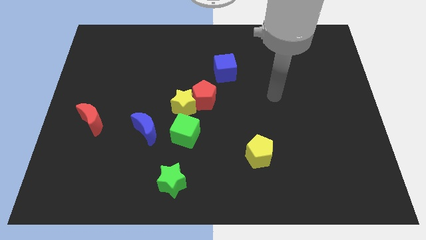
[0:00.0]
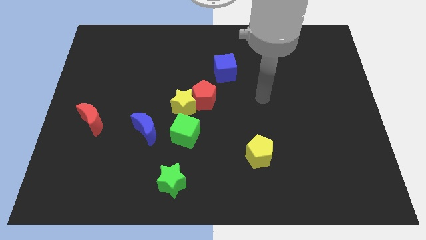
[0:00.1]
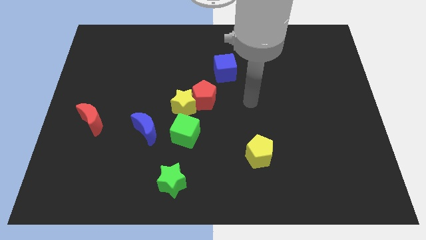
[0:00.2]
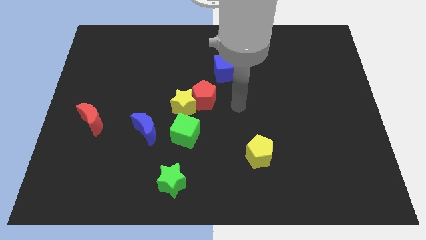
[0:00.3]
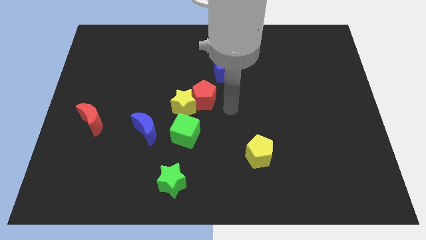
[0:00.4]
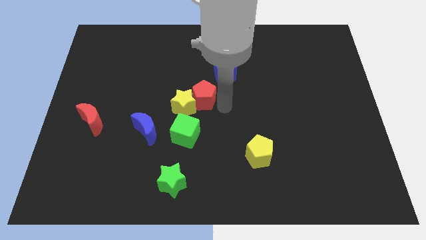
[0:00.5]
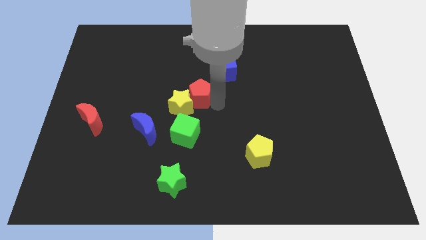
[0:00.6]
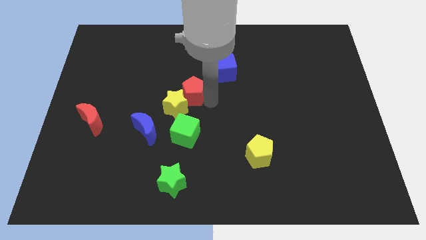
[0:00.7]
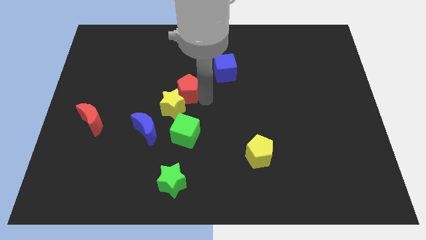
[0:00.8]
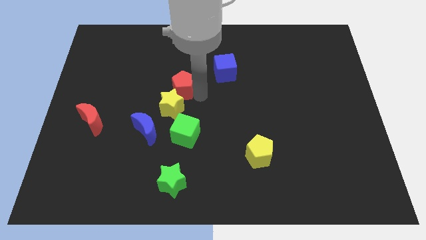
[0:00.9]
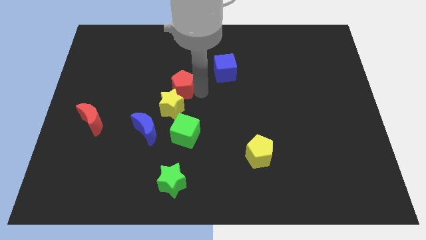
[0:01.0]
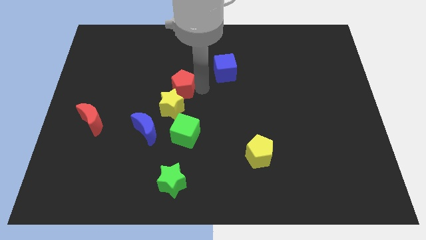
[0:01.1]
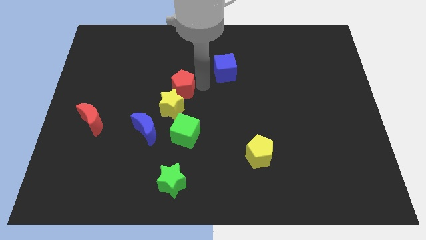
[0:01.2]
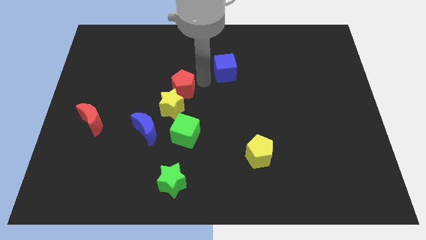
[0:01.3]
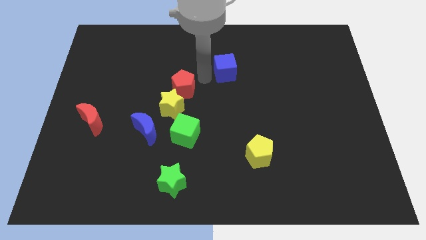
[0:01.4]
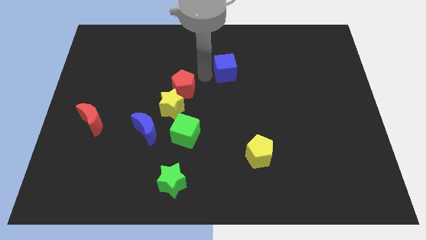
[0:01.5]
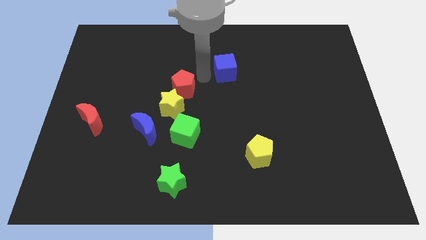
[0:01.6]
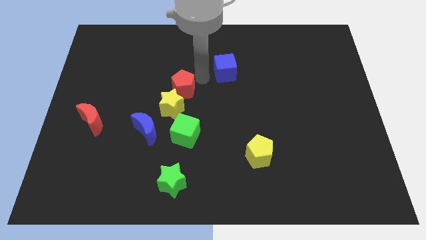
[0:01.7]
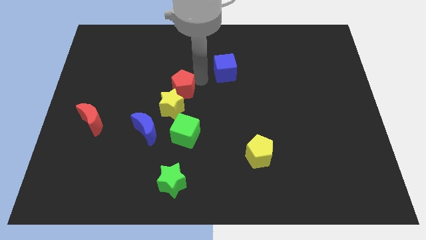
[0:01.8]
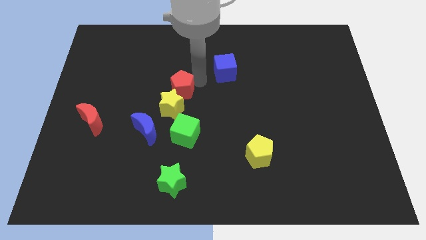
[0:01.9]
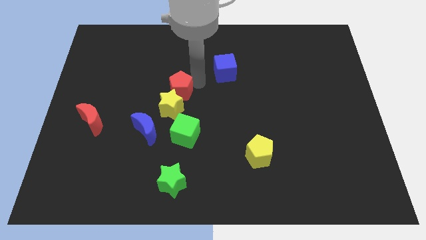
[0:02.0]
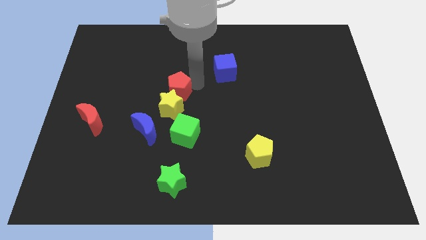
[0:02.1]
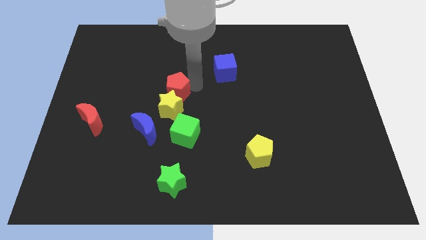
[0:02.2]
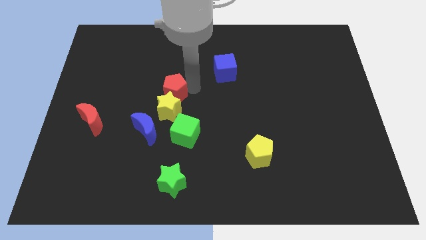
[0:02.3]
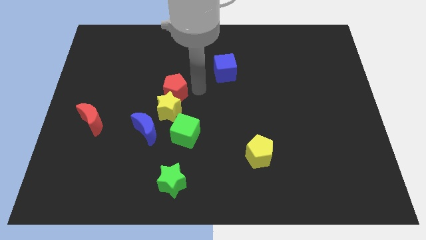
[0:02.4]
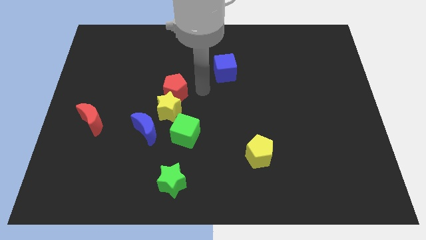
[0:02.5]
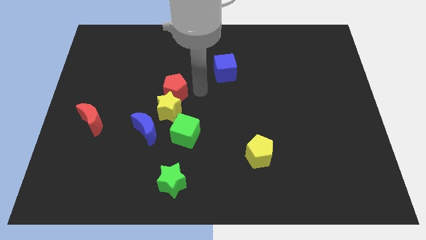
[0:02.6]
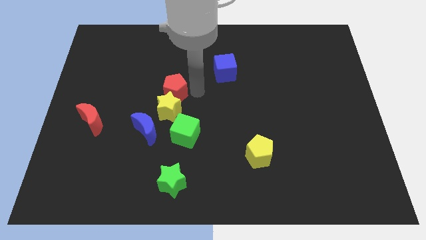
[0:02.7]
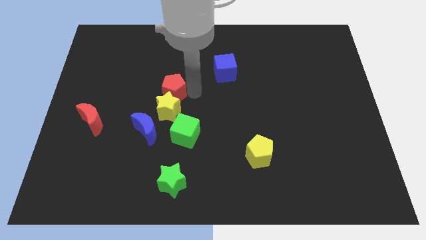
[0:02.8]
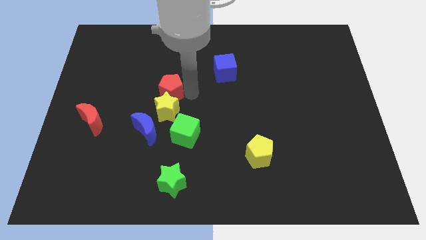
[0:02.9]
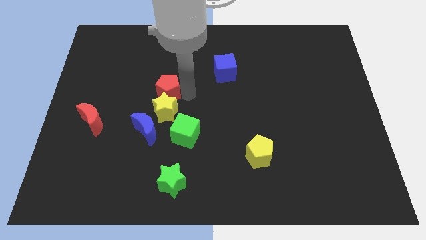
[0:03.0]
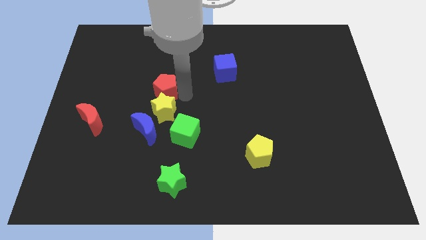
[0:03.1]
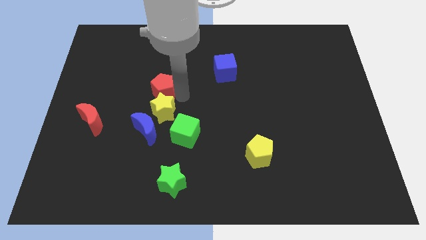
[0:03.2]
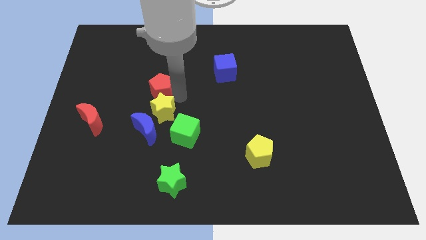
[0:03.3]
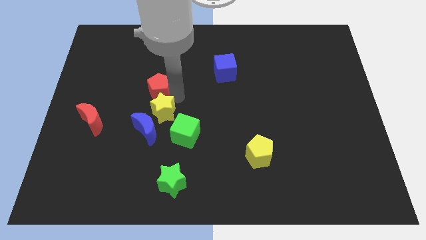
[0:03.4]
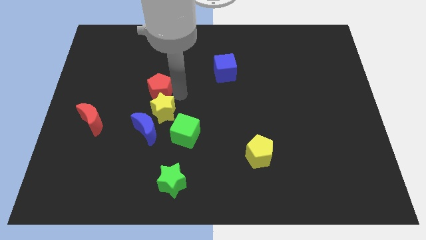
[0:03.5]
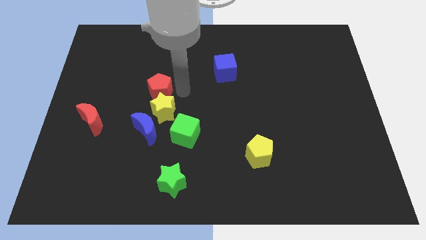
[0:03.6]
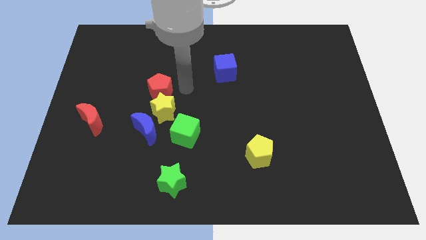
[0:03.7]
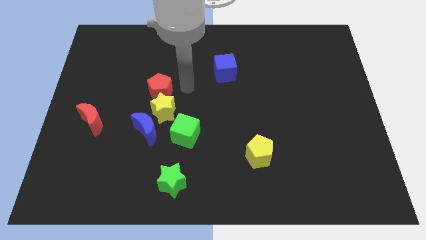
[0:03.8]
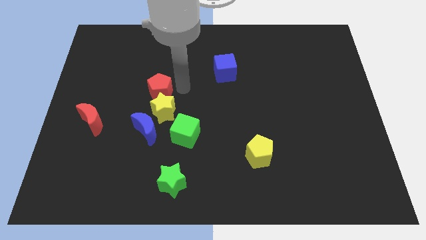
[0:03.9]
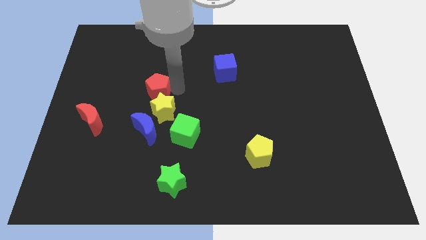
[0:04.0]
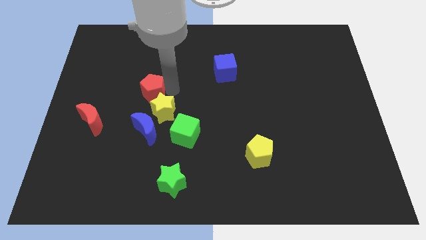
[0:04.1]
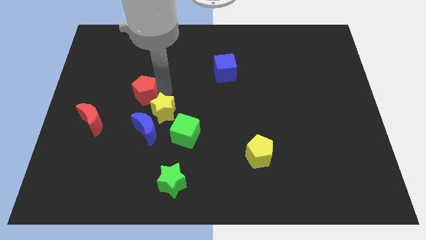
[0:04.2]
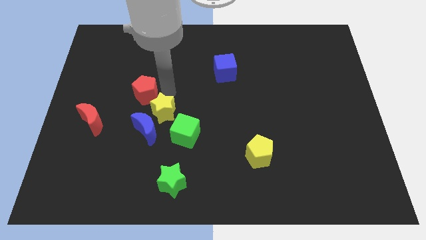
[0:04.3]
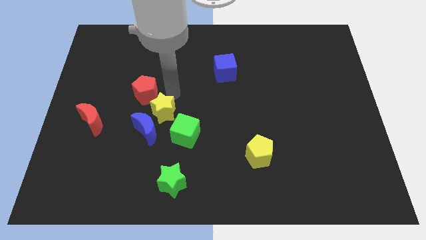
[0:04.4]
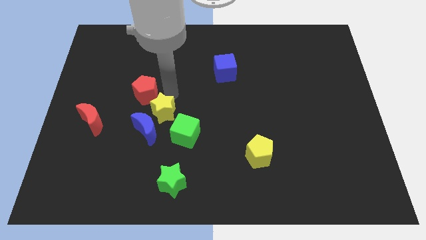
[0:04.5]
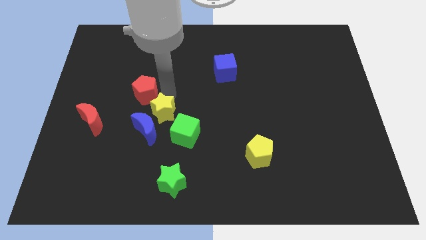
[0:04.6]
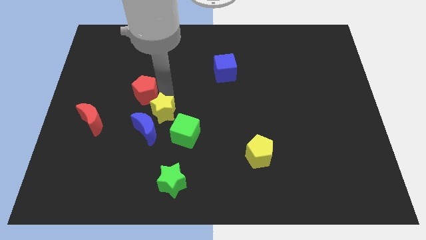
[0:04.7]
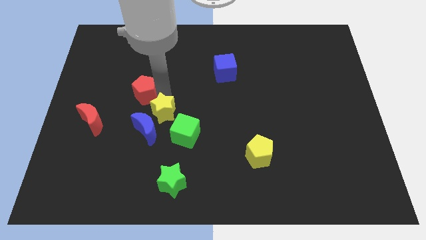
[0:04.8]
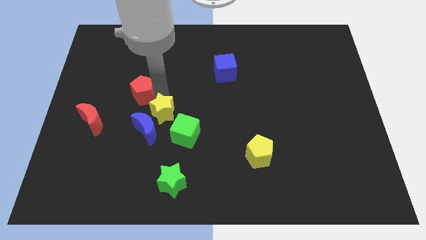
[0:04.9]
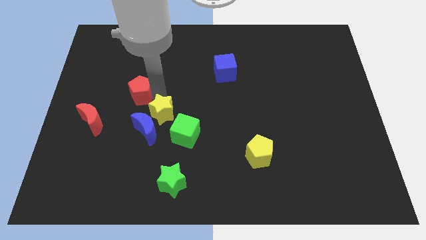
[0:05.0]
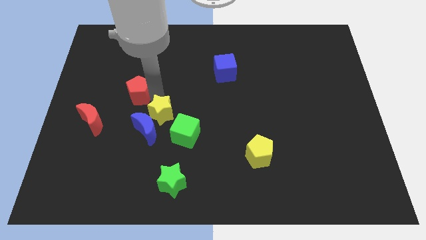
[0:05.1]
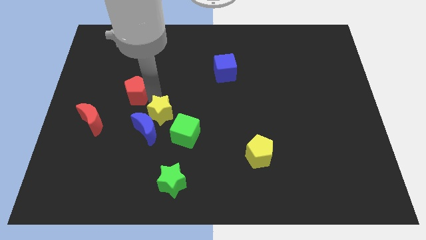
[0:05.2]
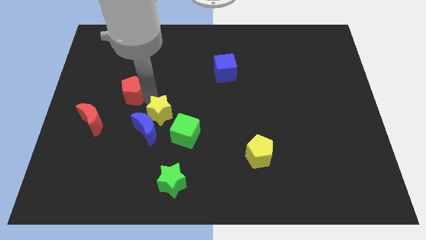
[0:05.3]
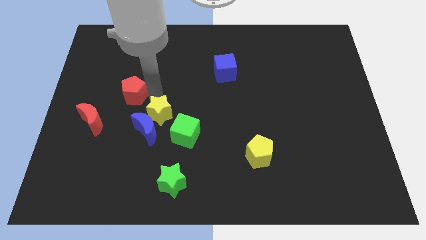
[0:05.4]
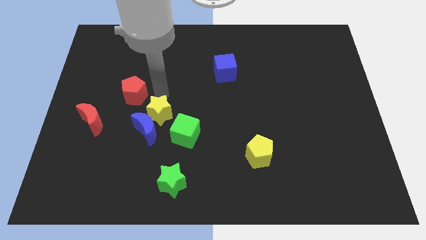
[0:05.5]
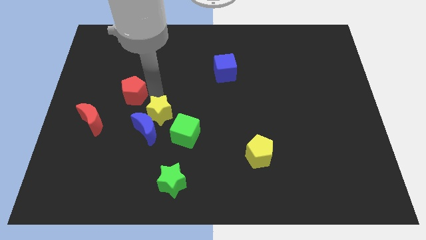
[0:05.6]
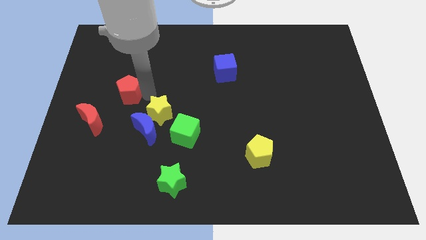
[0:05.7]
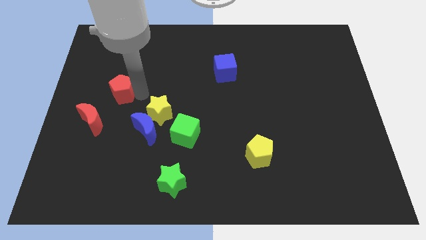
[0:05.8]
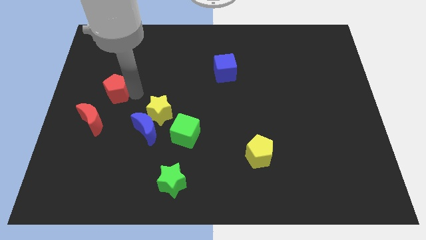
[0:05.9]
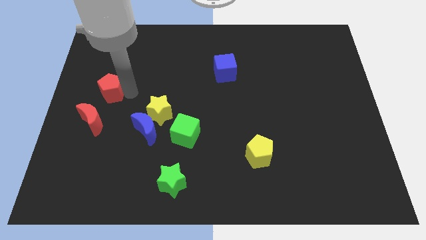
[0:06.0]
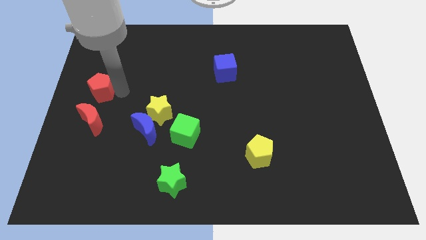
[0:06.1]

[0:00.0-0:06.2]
push the red pentagon to the left side of the board
